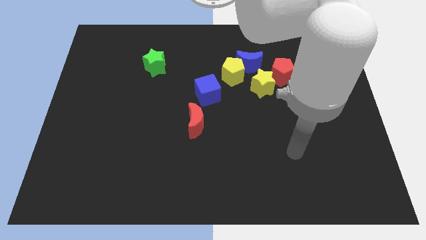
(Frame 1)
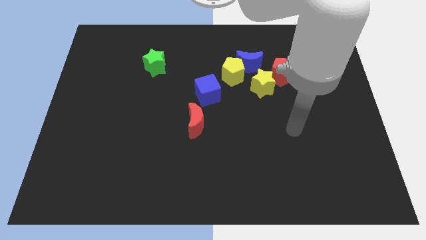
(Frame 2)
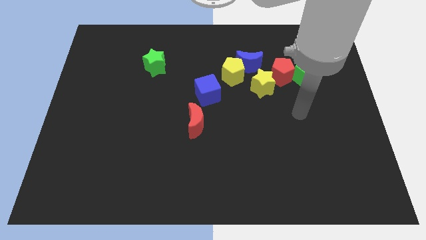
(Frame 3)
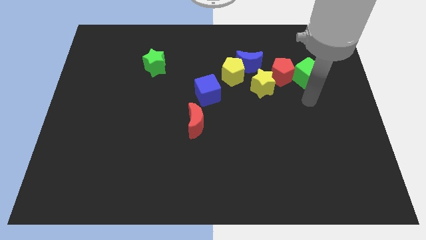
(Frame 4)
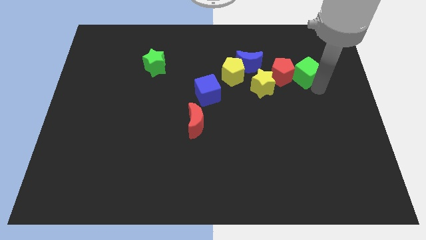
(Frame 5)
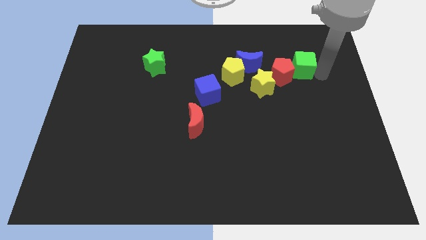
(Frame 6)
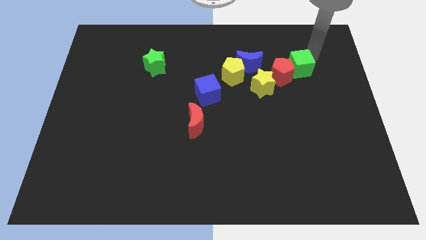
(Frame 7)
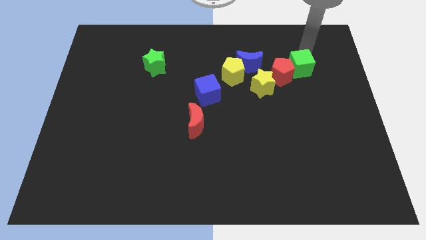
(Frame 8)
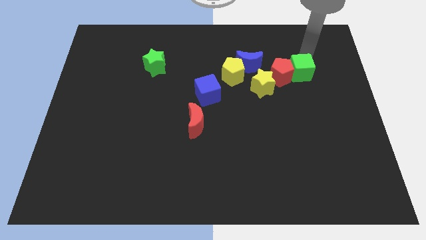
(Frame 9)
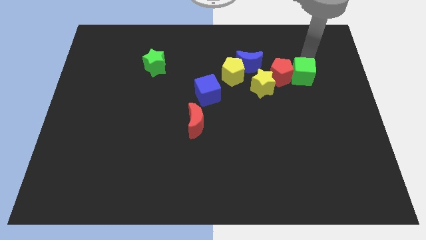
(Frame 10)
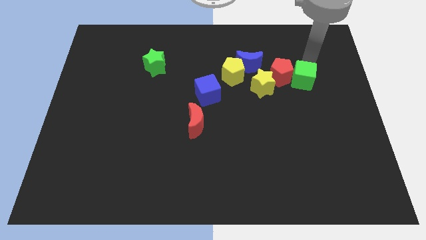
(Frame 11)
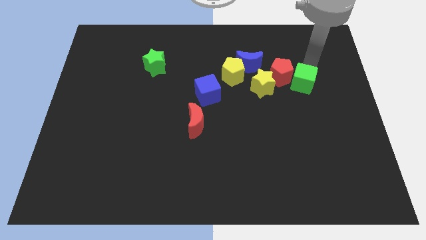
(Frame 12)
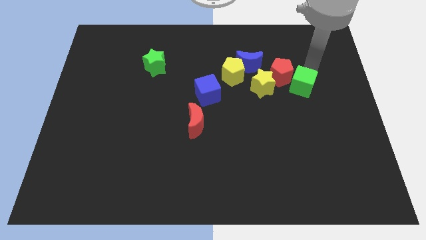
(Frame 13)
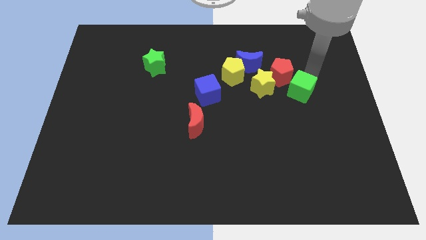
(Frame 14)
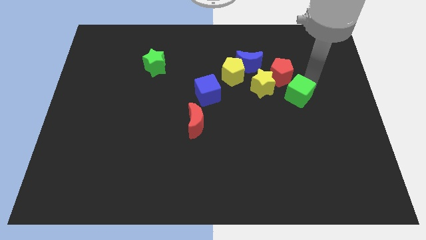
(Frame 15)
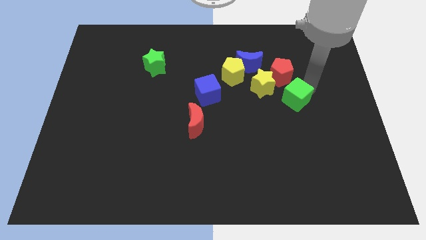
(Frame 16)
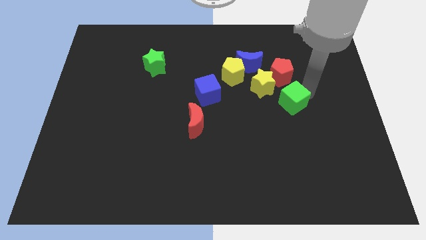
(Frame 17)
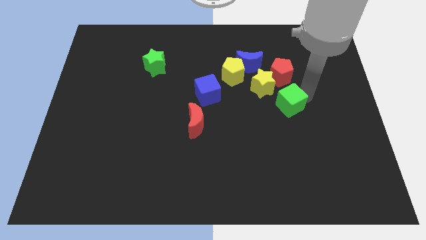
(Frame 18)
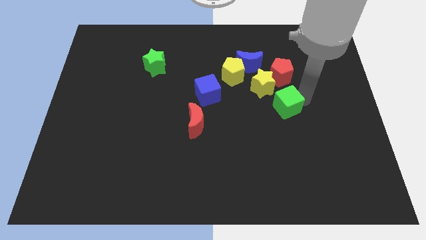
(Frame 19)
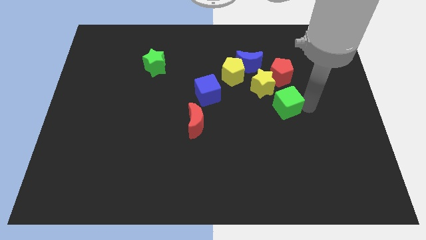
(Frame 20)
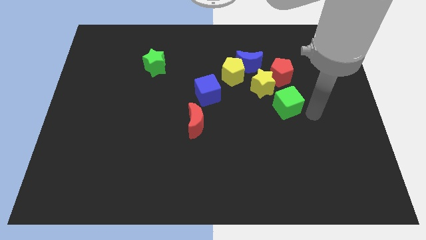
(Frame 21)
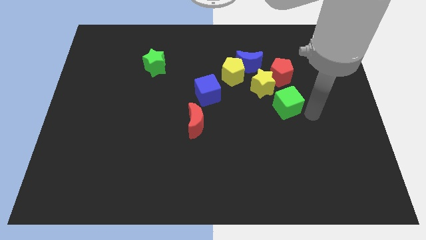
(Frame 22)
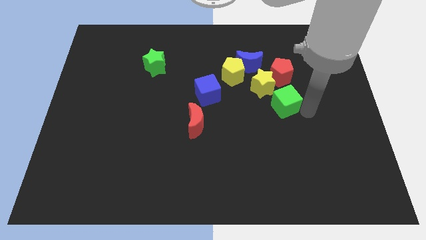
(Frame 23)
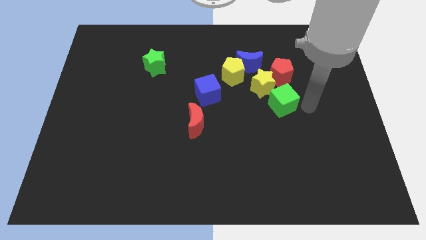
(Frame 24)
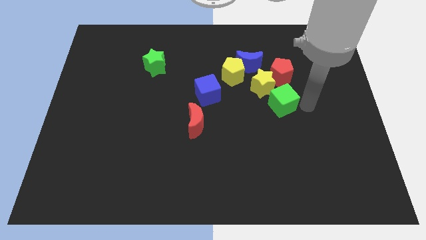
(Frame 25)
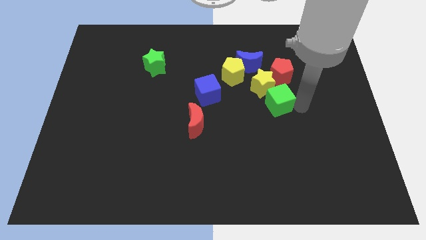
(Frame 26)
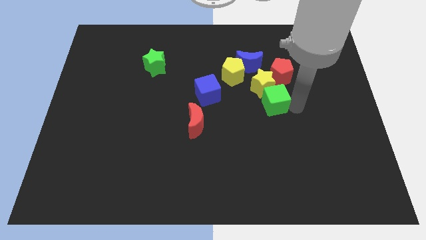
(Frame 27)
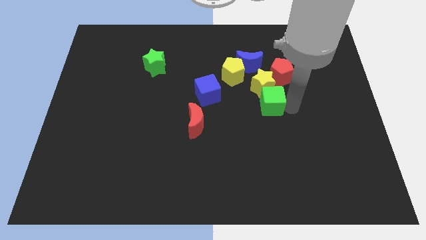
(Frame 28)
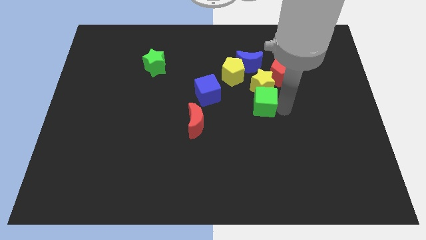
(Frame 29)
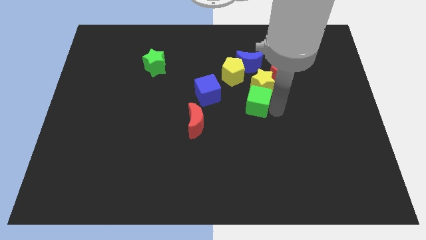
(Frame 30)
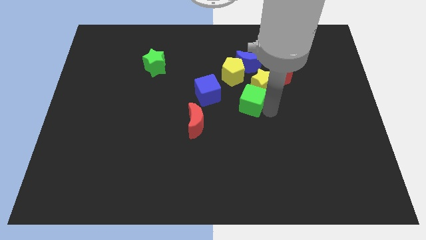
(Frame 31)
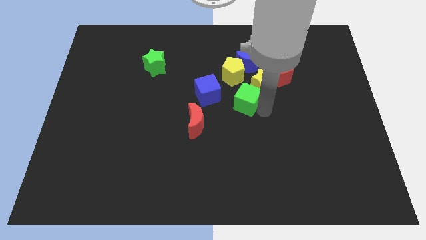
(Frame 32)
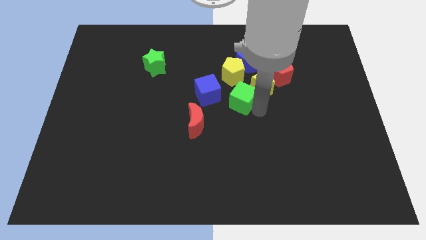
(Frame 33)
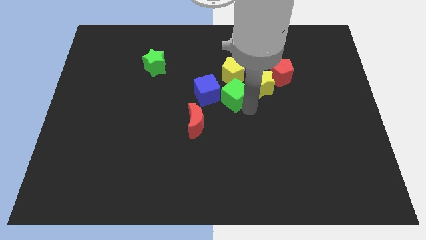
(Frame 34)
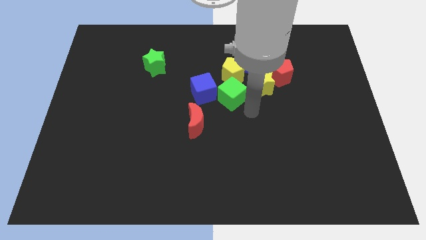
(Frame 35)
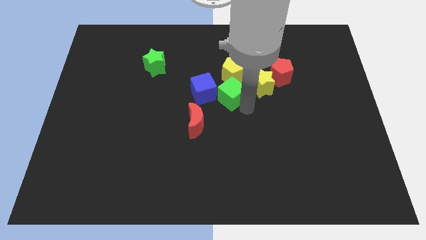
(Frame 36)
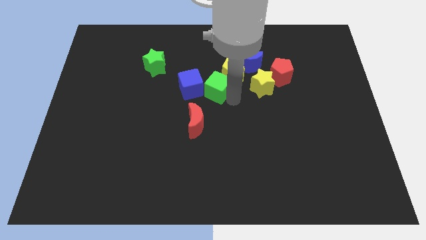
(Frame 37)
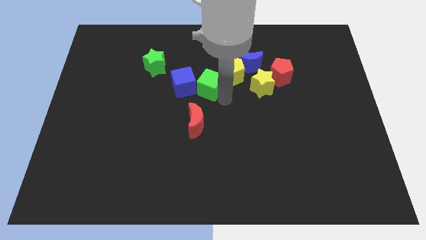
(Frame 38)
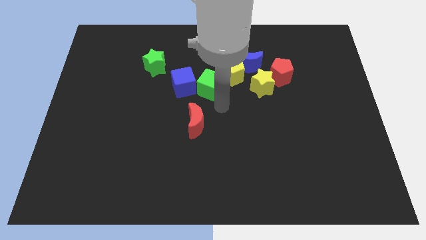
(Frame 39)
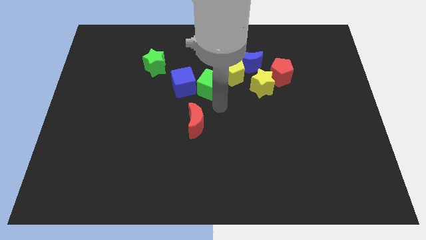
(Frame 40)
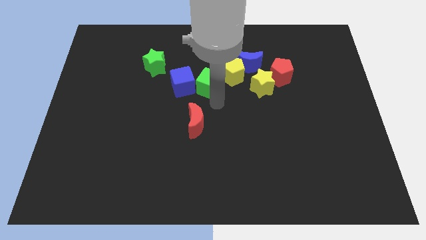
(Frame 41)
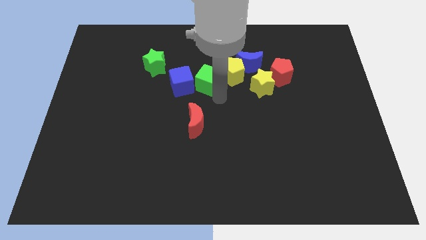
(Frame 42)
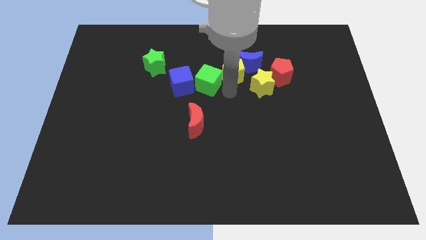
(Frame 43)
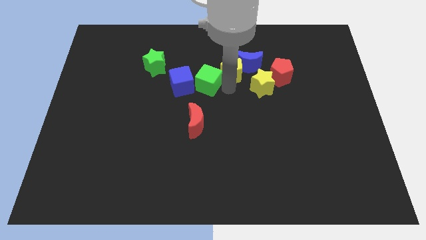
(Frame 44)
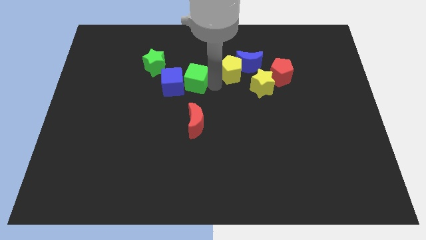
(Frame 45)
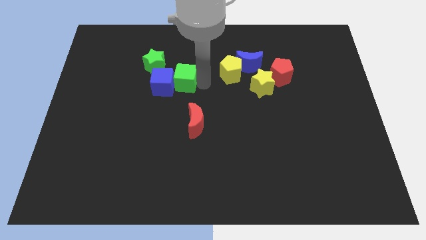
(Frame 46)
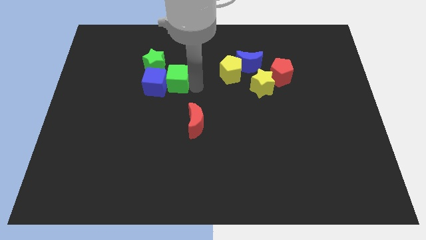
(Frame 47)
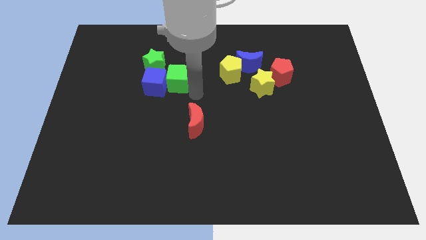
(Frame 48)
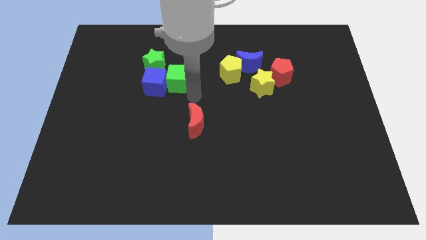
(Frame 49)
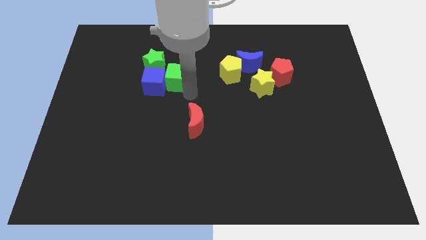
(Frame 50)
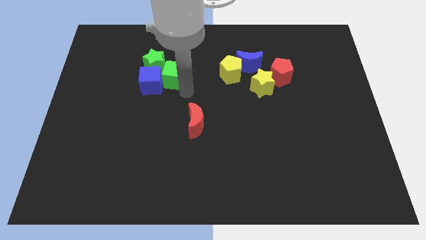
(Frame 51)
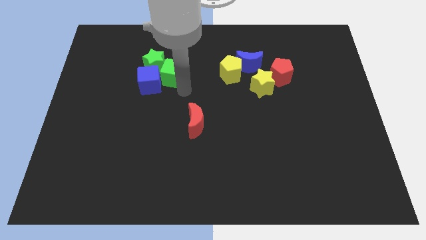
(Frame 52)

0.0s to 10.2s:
push the green cube close to the green star

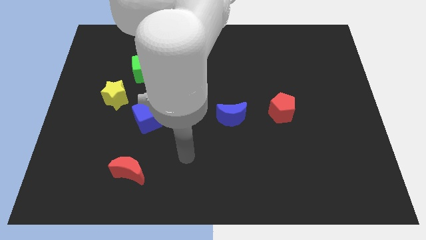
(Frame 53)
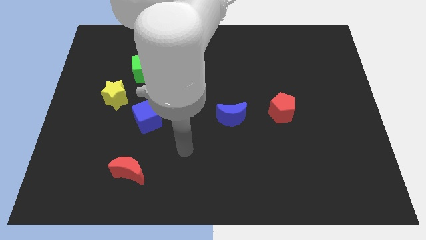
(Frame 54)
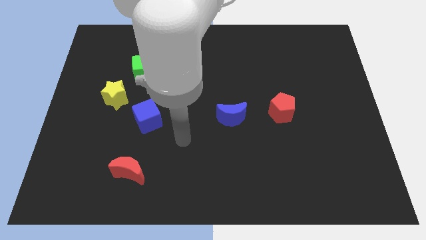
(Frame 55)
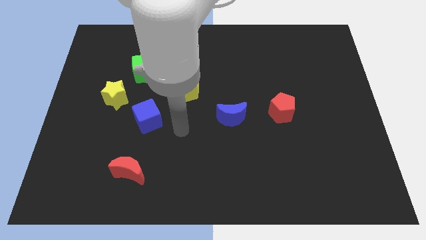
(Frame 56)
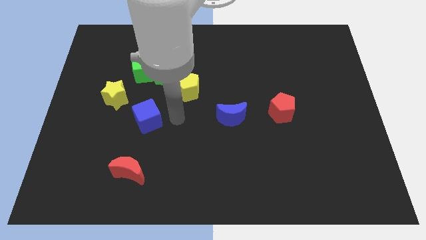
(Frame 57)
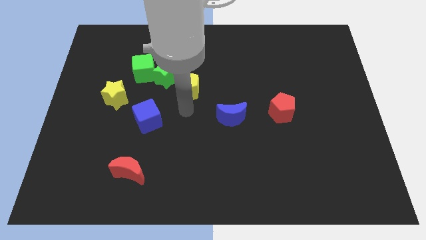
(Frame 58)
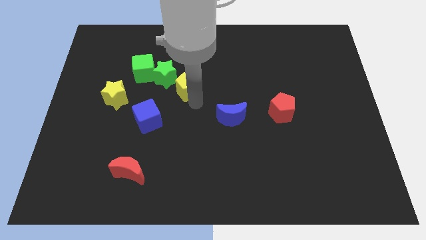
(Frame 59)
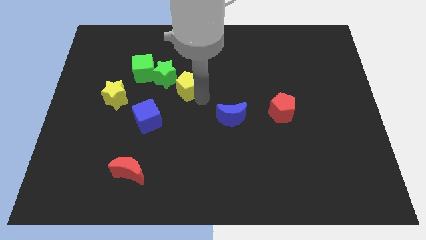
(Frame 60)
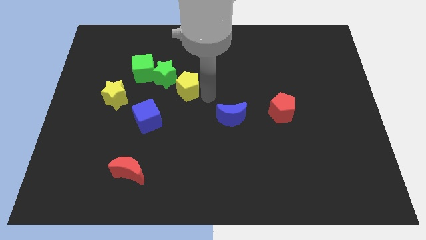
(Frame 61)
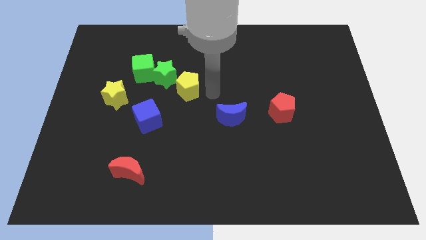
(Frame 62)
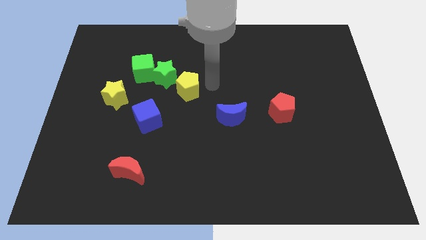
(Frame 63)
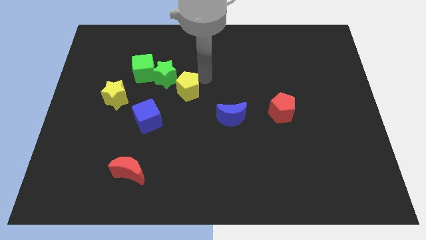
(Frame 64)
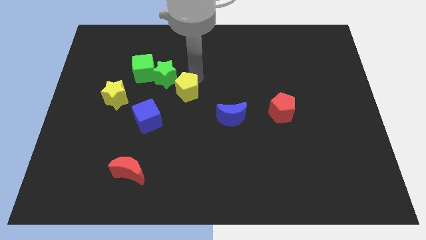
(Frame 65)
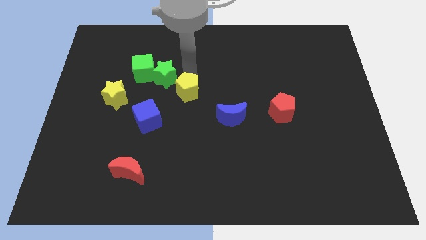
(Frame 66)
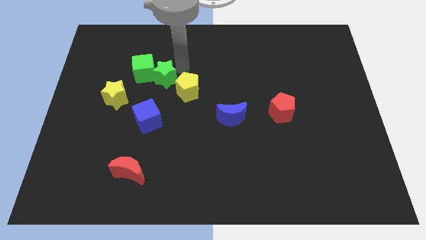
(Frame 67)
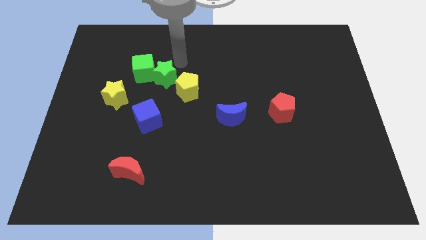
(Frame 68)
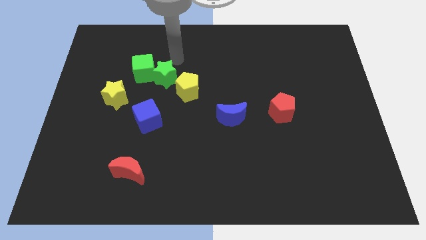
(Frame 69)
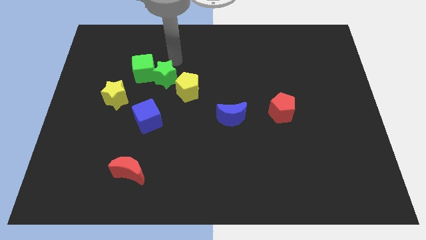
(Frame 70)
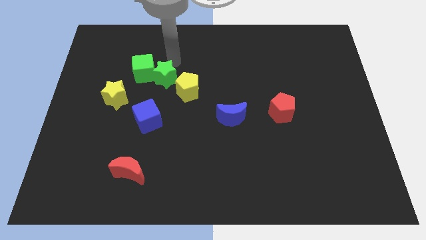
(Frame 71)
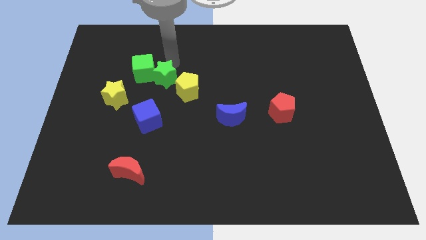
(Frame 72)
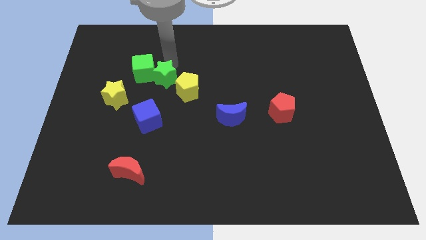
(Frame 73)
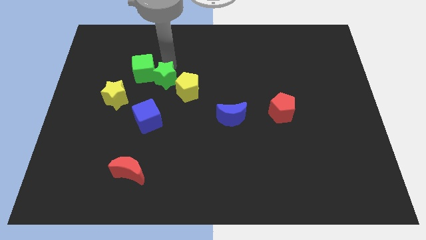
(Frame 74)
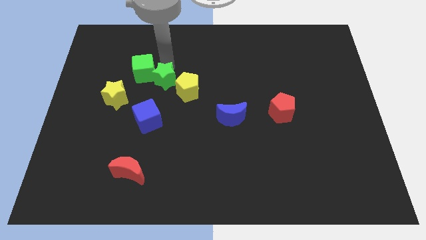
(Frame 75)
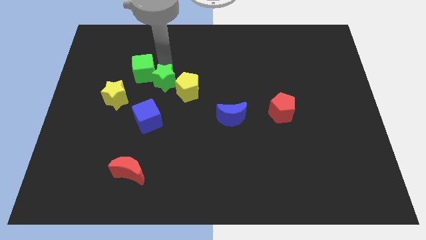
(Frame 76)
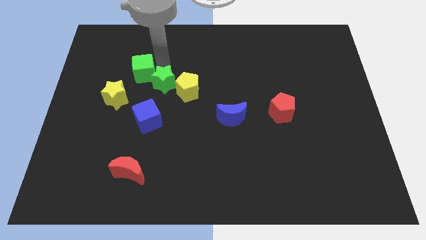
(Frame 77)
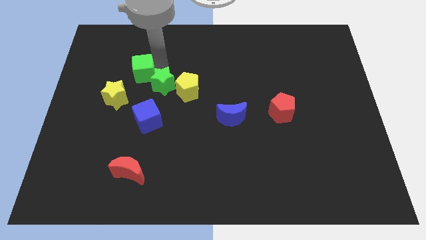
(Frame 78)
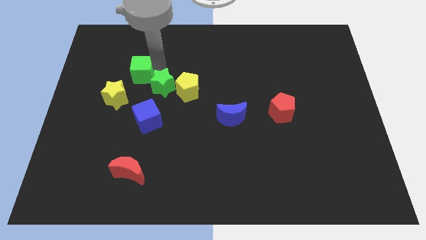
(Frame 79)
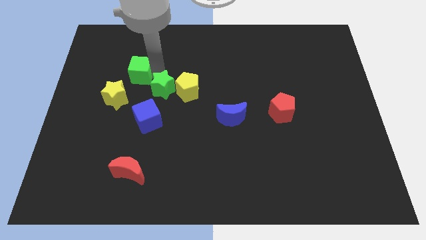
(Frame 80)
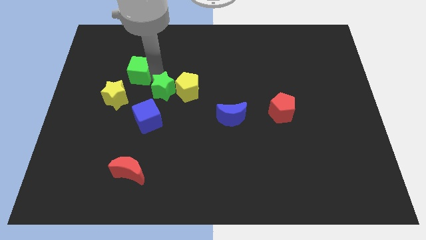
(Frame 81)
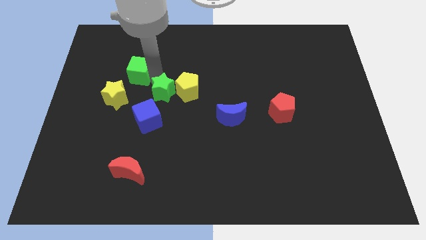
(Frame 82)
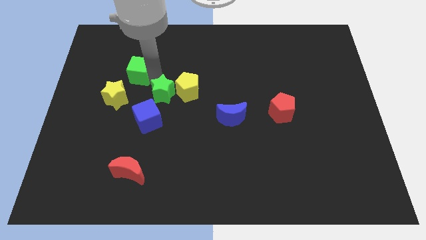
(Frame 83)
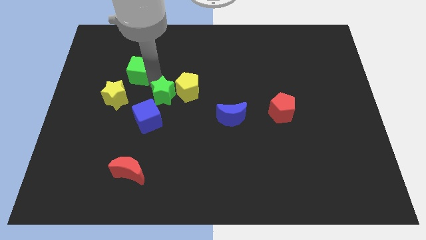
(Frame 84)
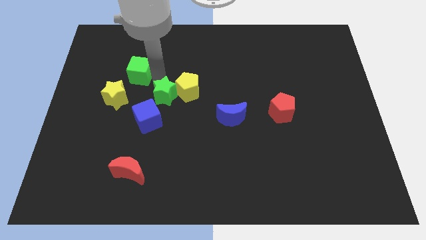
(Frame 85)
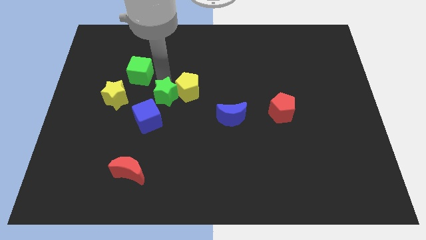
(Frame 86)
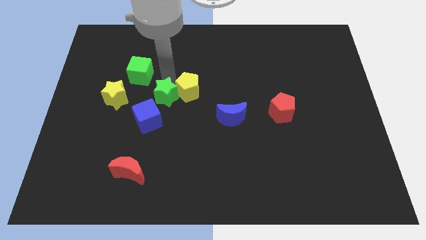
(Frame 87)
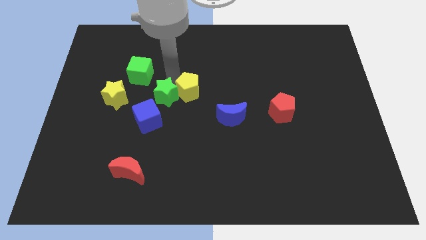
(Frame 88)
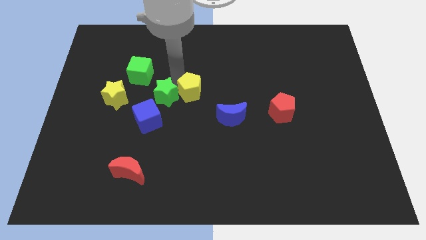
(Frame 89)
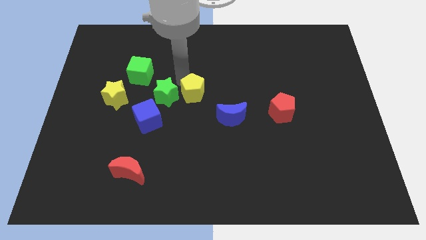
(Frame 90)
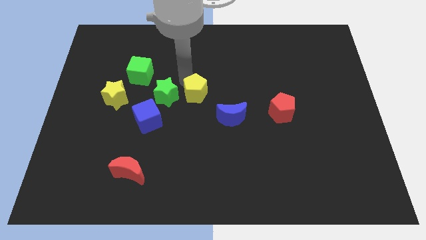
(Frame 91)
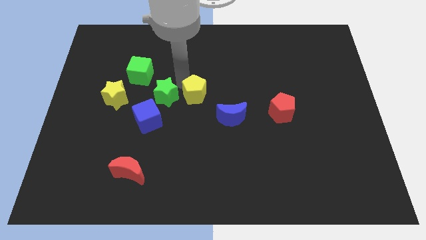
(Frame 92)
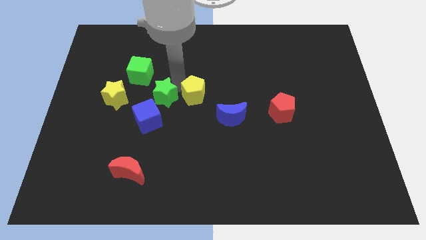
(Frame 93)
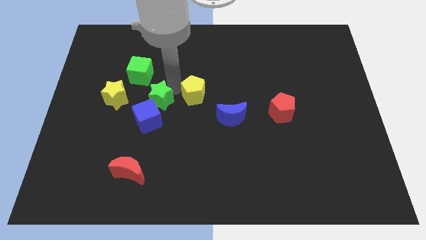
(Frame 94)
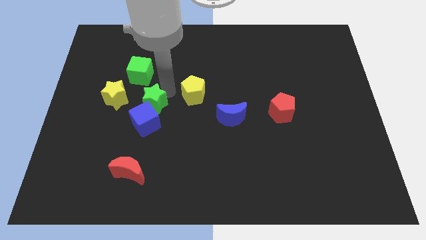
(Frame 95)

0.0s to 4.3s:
move the green star towards the blue cube
